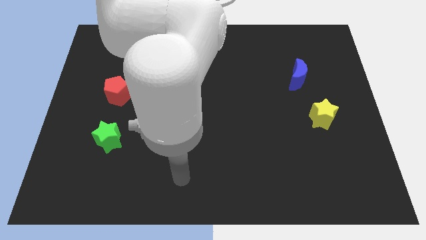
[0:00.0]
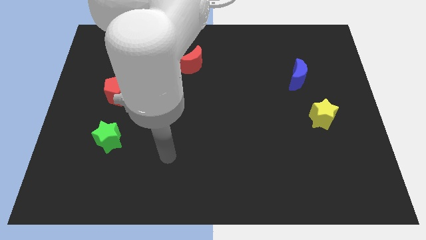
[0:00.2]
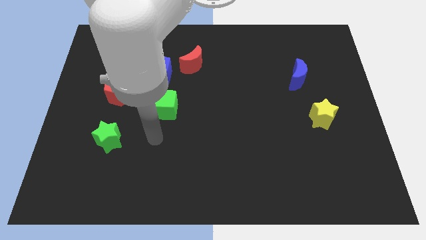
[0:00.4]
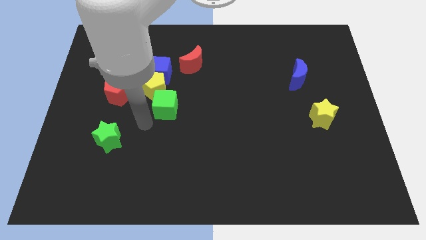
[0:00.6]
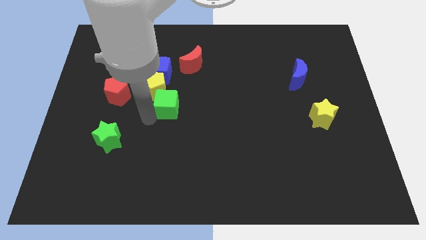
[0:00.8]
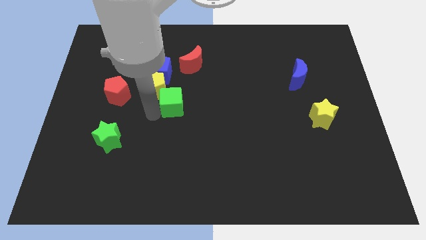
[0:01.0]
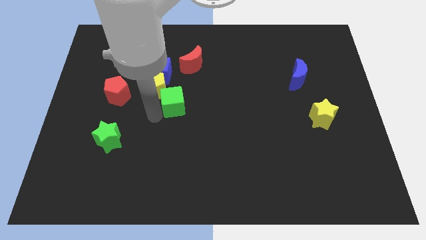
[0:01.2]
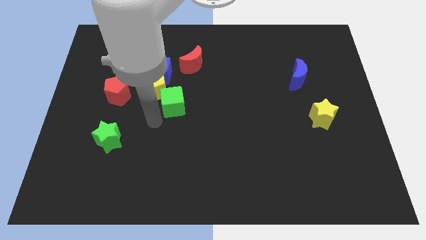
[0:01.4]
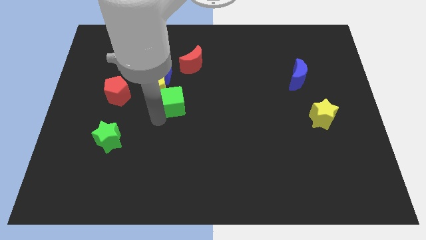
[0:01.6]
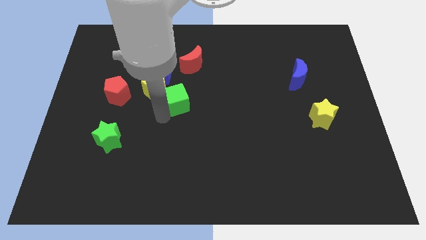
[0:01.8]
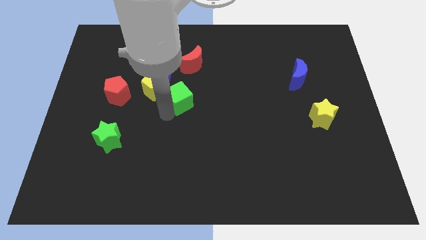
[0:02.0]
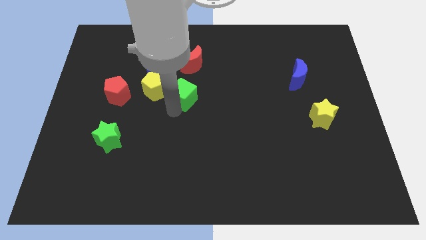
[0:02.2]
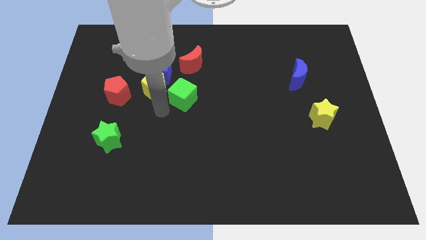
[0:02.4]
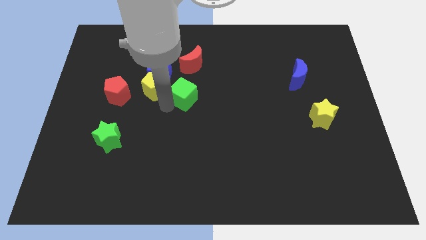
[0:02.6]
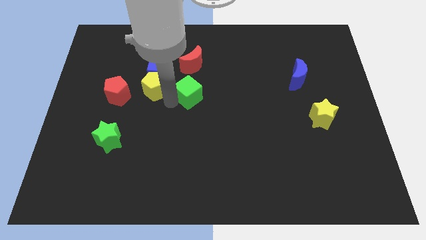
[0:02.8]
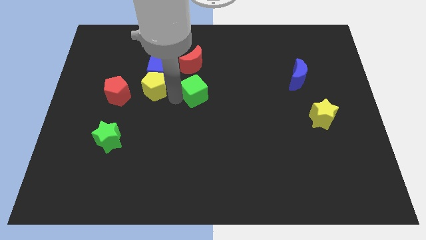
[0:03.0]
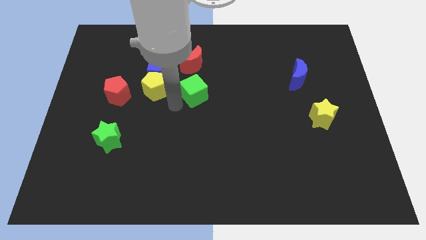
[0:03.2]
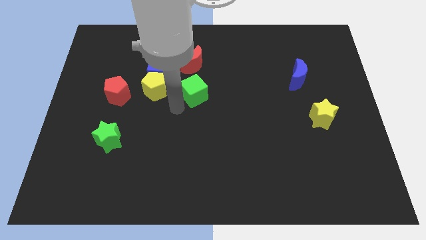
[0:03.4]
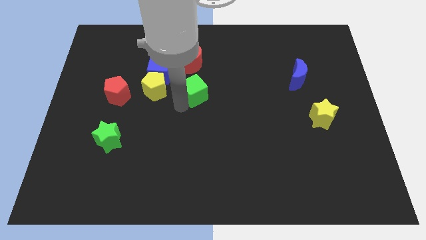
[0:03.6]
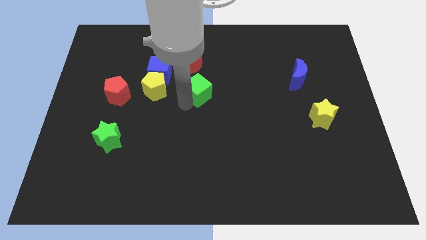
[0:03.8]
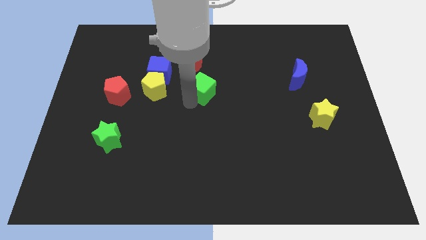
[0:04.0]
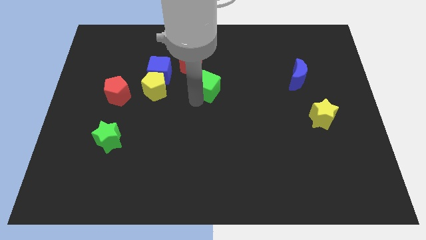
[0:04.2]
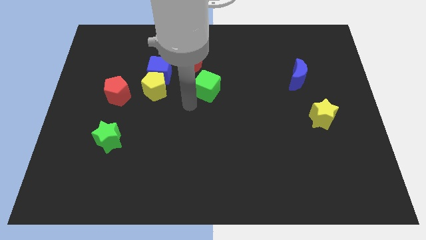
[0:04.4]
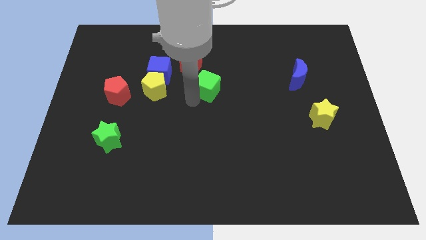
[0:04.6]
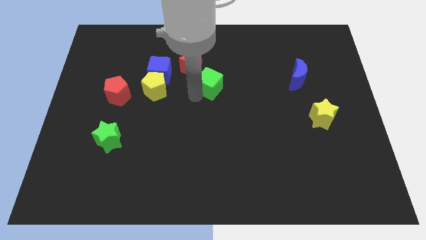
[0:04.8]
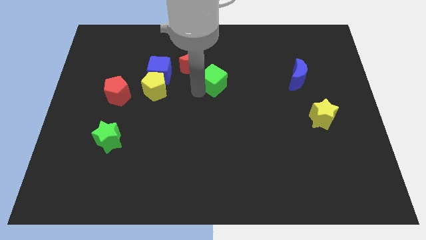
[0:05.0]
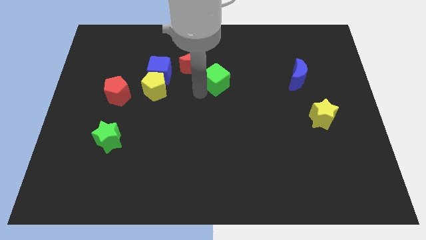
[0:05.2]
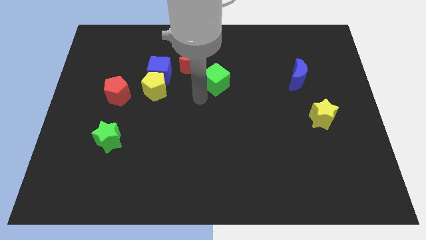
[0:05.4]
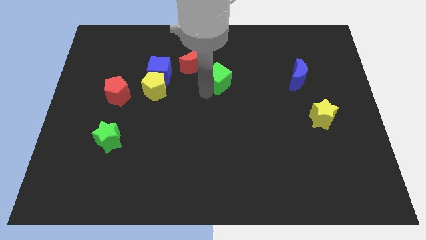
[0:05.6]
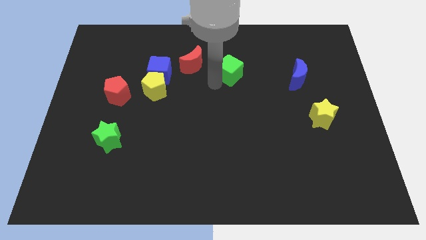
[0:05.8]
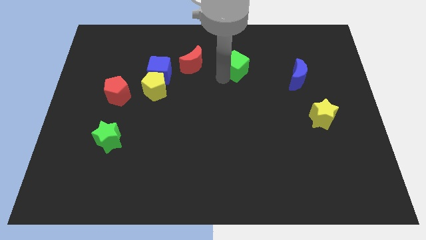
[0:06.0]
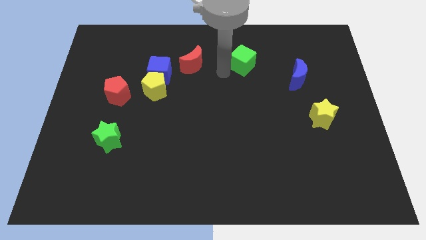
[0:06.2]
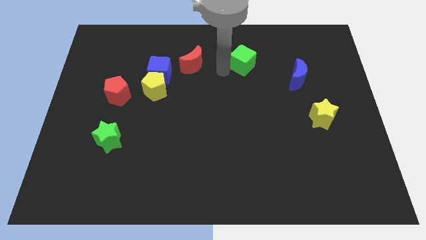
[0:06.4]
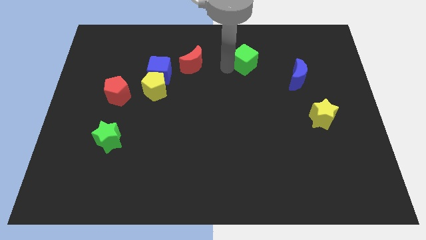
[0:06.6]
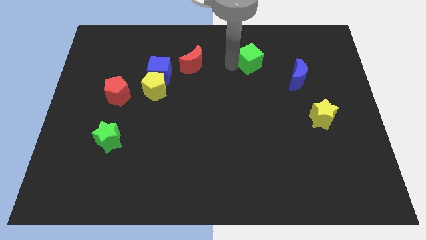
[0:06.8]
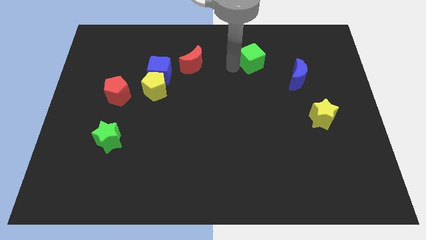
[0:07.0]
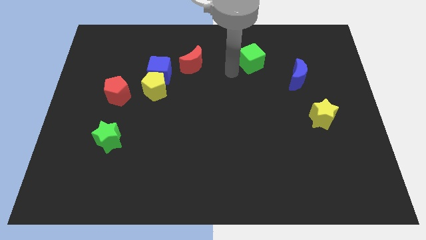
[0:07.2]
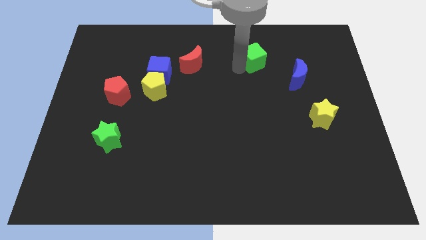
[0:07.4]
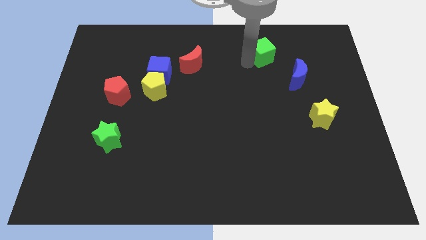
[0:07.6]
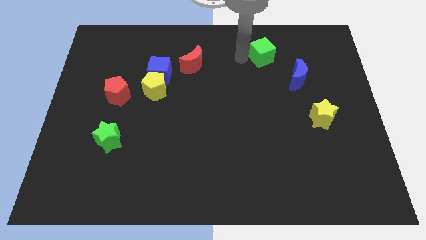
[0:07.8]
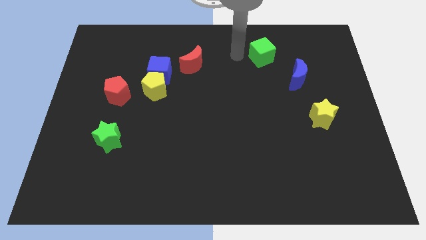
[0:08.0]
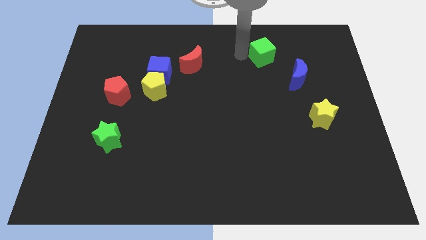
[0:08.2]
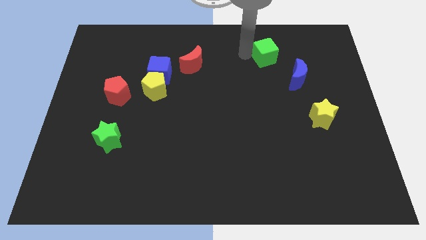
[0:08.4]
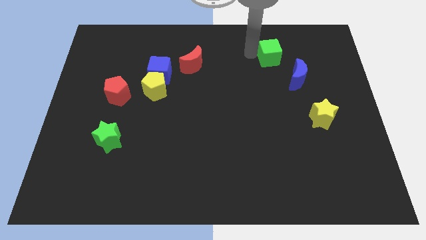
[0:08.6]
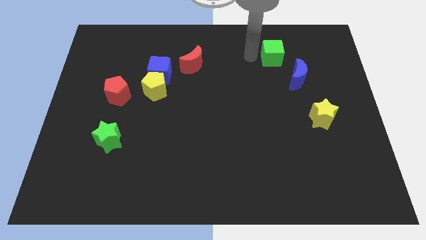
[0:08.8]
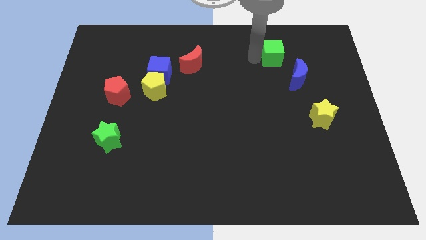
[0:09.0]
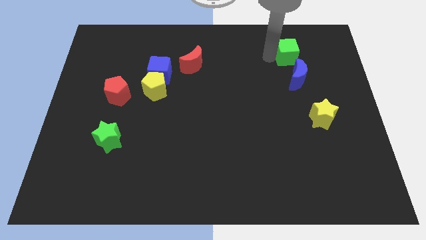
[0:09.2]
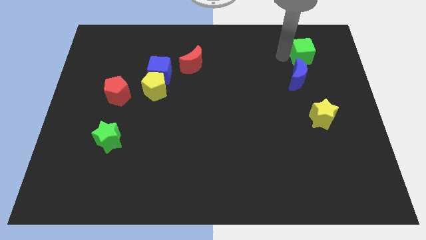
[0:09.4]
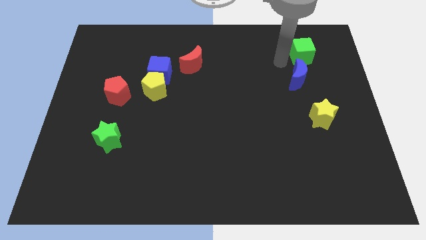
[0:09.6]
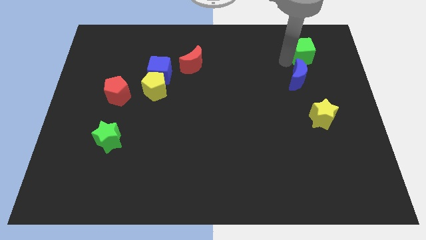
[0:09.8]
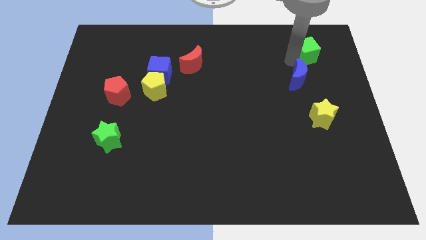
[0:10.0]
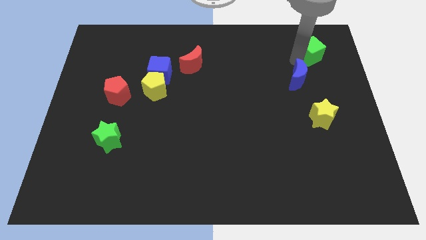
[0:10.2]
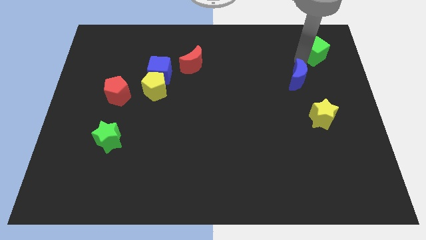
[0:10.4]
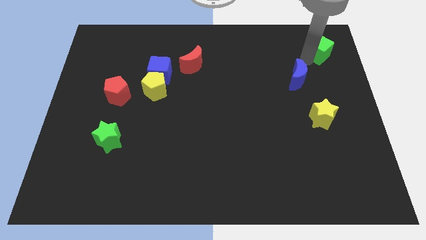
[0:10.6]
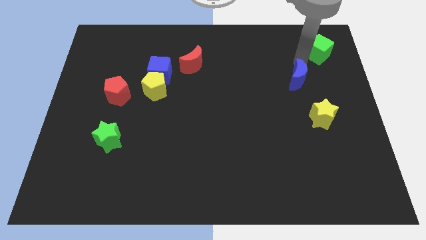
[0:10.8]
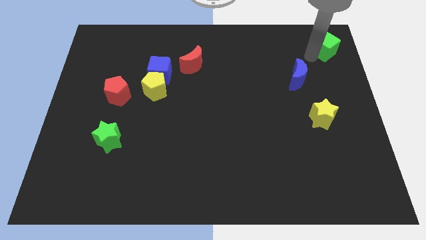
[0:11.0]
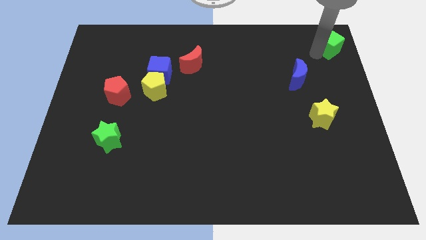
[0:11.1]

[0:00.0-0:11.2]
slide the green cube to the upper right corner

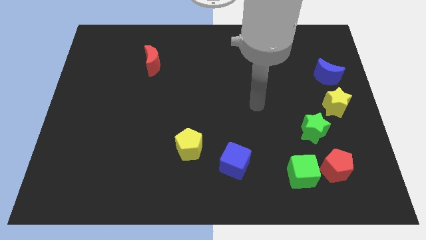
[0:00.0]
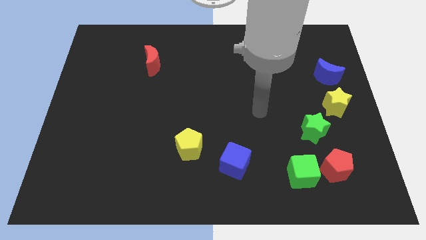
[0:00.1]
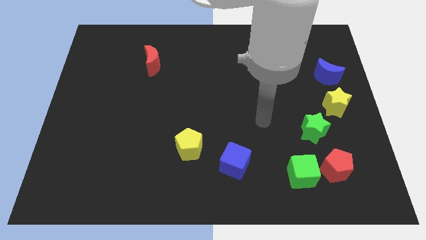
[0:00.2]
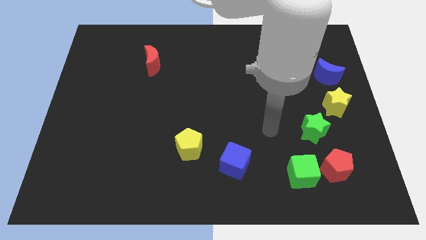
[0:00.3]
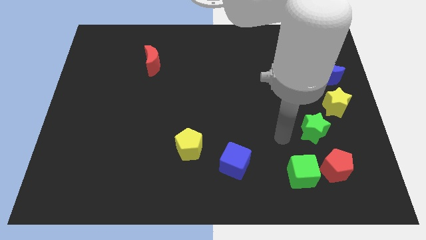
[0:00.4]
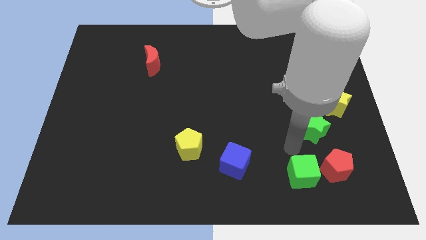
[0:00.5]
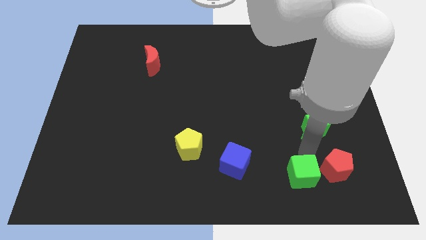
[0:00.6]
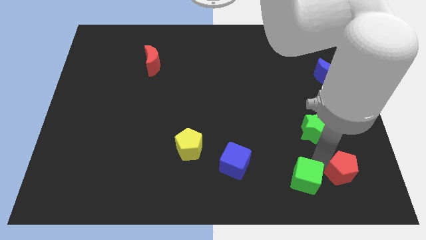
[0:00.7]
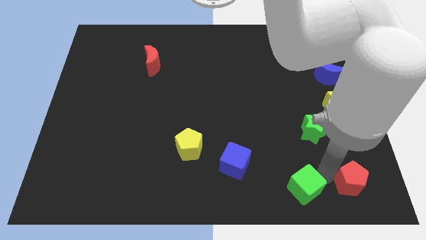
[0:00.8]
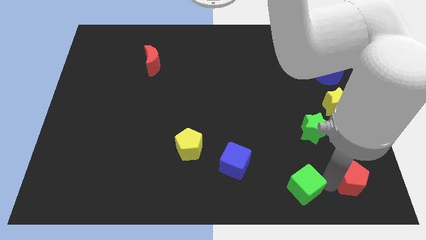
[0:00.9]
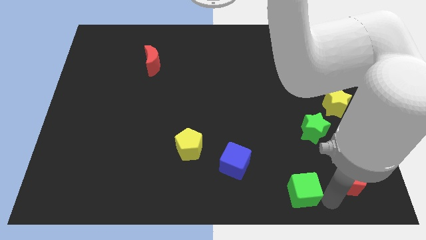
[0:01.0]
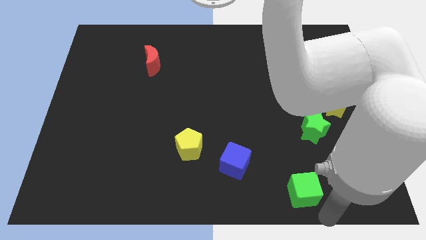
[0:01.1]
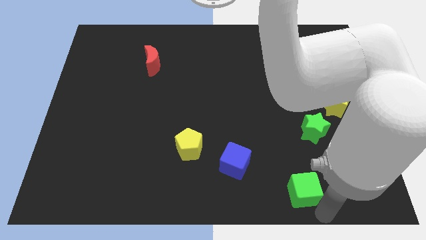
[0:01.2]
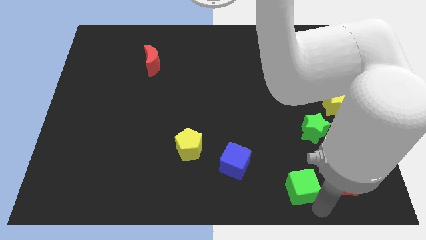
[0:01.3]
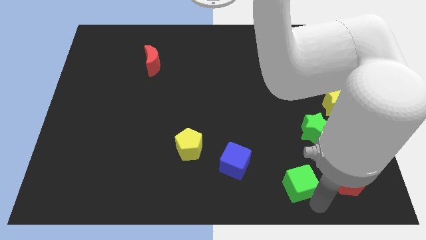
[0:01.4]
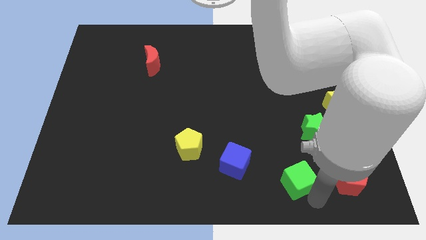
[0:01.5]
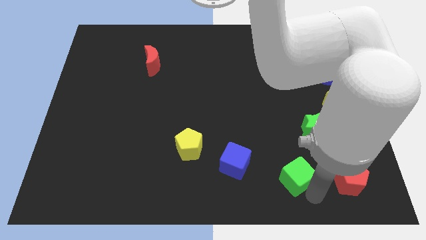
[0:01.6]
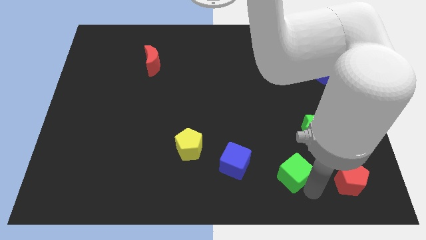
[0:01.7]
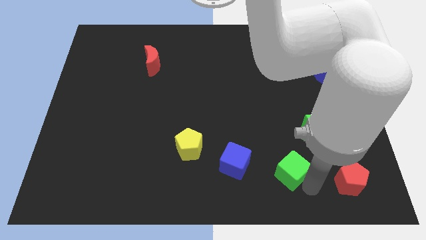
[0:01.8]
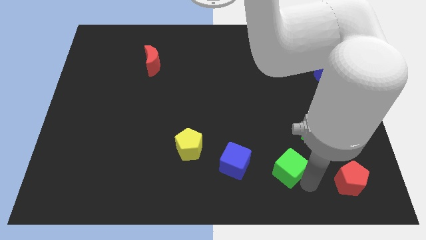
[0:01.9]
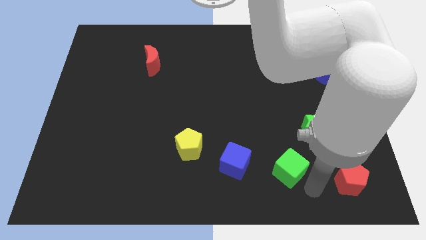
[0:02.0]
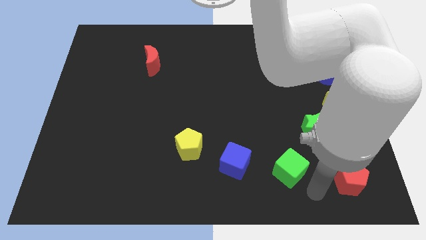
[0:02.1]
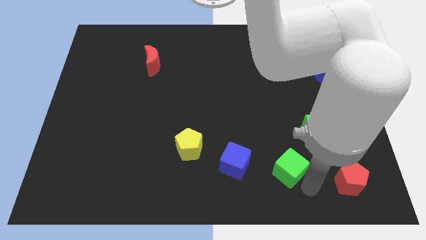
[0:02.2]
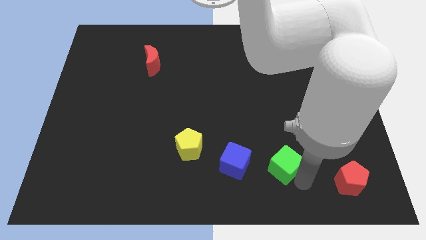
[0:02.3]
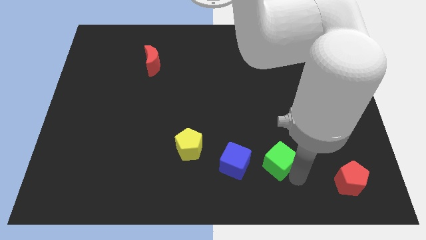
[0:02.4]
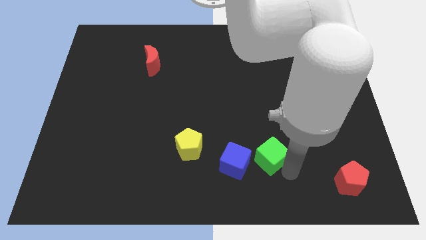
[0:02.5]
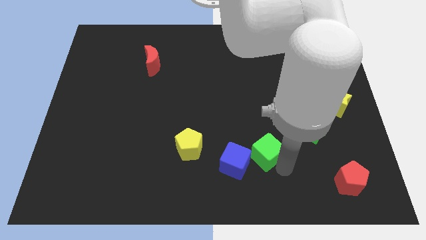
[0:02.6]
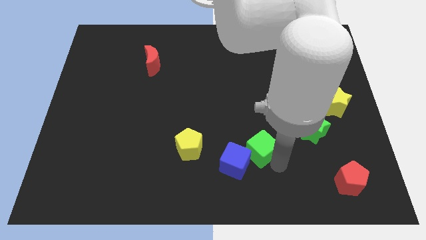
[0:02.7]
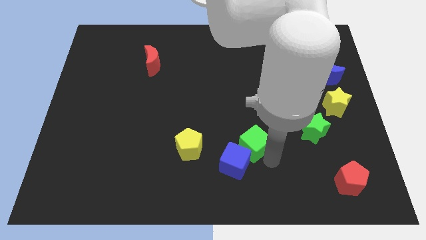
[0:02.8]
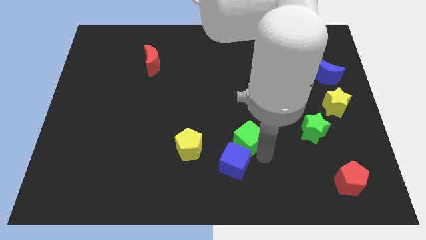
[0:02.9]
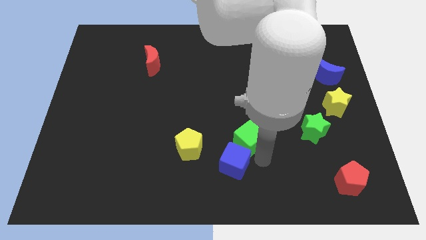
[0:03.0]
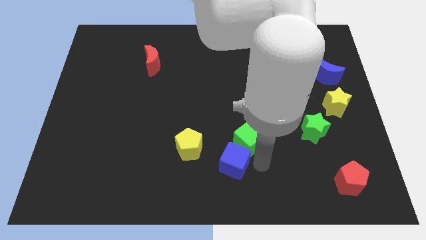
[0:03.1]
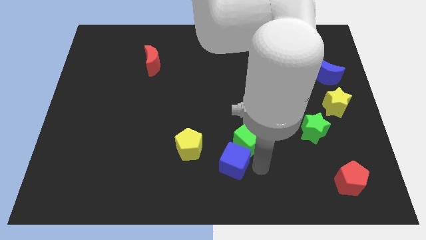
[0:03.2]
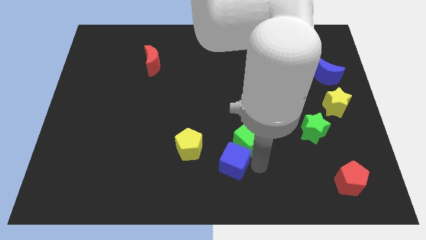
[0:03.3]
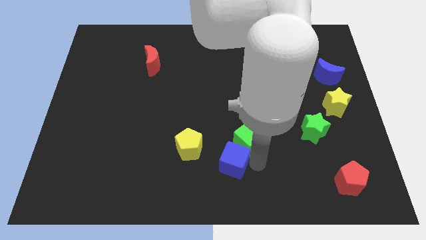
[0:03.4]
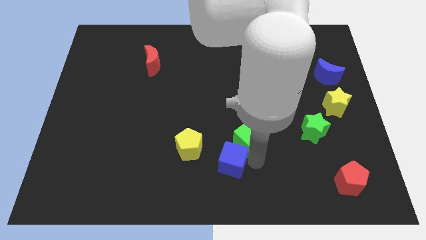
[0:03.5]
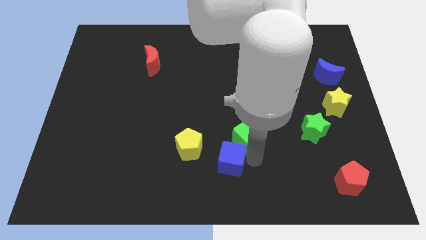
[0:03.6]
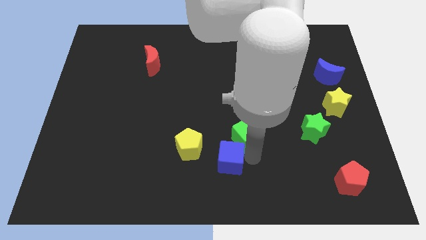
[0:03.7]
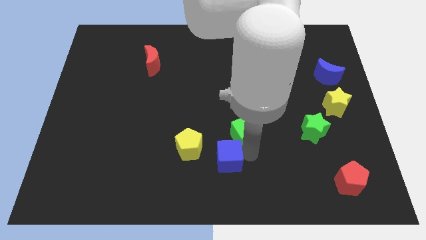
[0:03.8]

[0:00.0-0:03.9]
push the green cube to the middle
